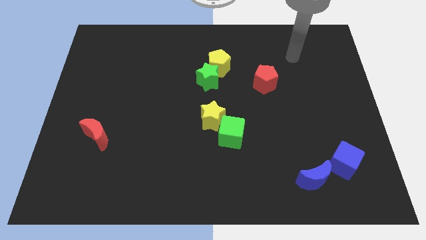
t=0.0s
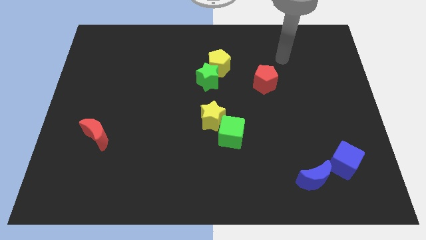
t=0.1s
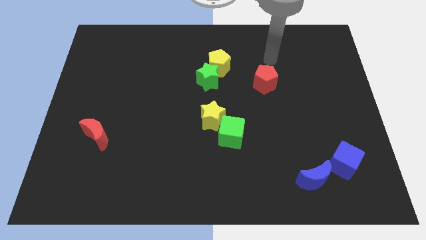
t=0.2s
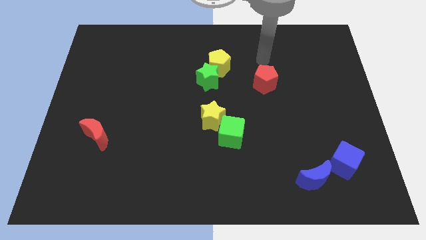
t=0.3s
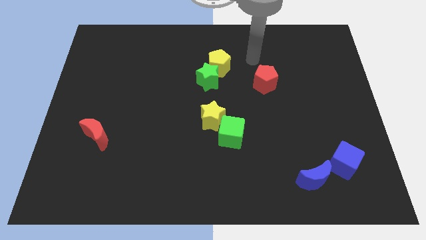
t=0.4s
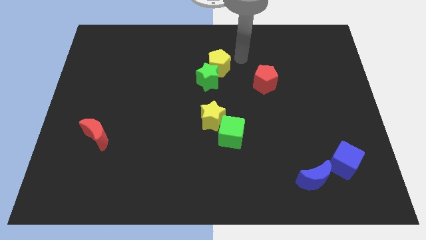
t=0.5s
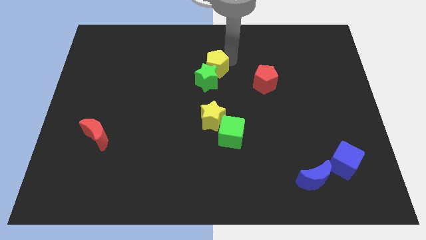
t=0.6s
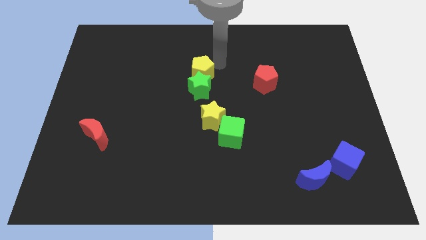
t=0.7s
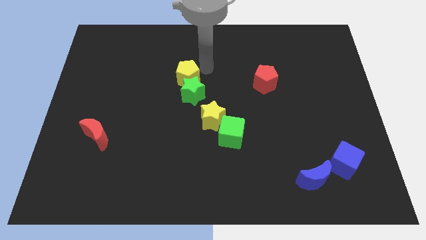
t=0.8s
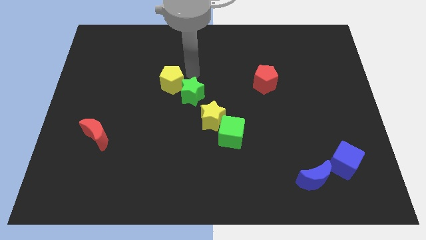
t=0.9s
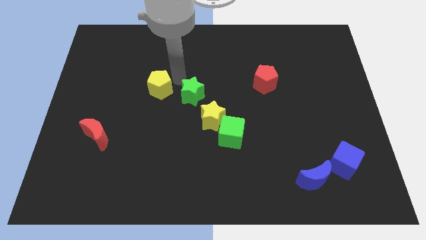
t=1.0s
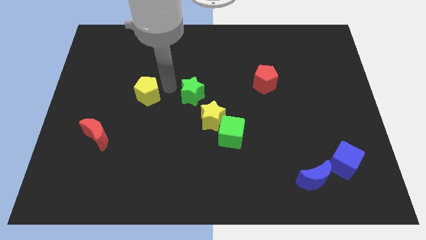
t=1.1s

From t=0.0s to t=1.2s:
separate the green star from the yellow pentagon

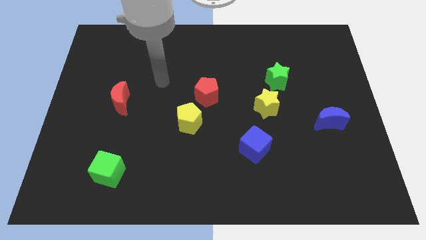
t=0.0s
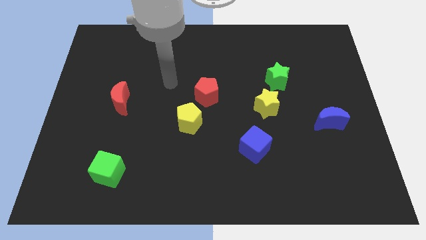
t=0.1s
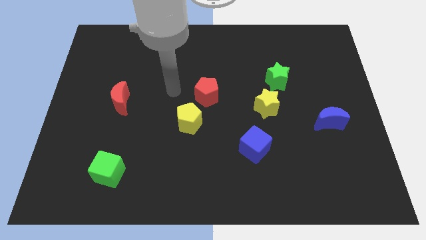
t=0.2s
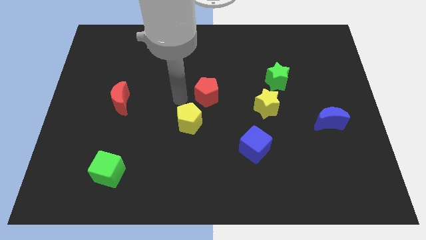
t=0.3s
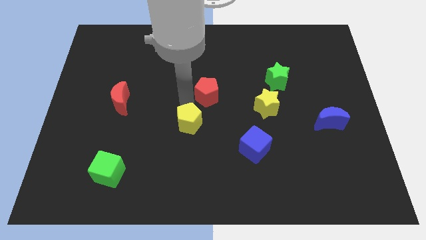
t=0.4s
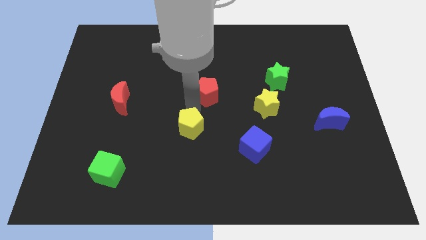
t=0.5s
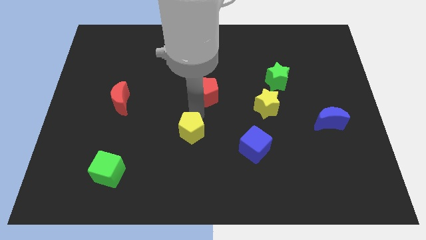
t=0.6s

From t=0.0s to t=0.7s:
separate the red pentagon from the yellow pentagon

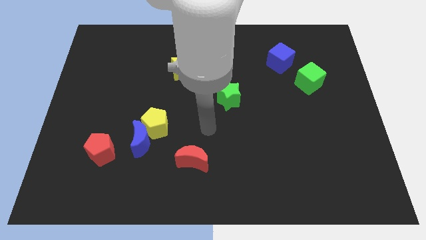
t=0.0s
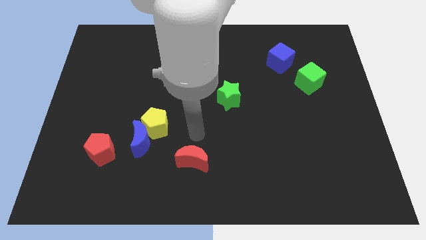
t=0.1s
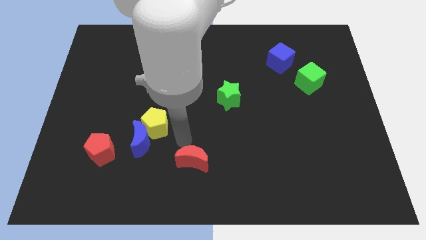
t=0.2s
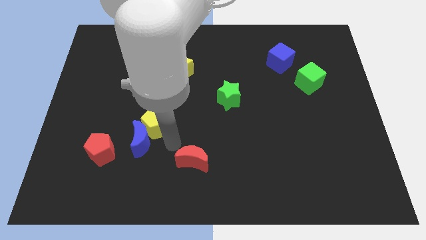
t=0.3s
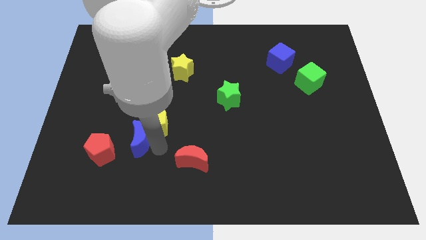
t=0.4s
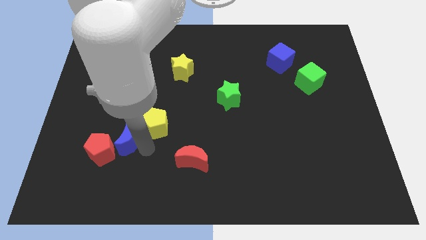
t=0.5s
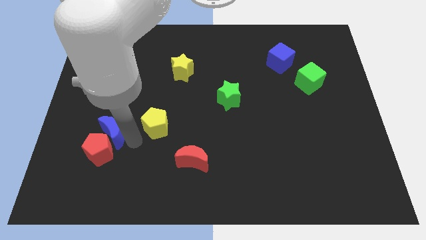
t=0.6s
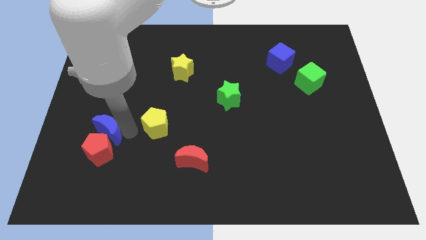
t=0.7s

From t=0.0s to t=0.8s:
move the yellow pentagon away from the blue moon

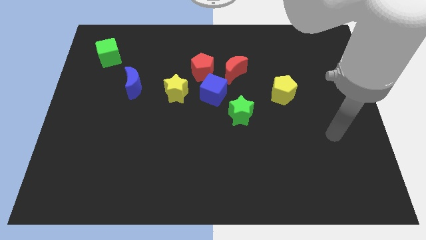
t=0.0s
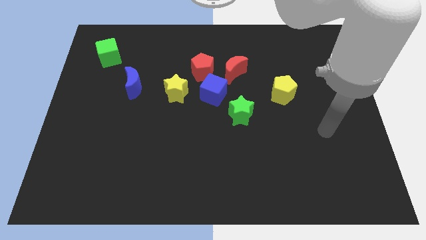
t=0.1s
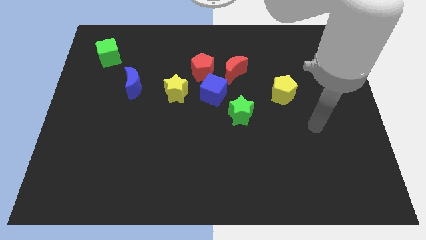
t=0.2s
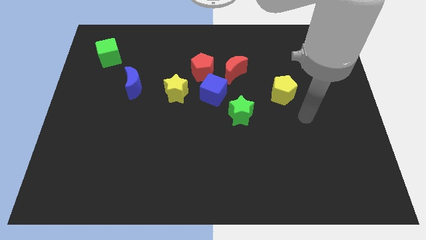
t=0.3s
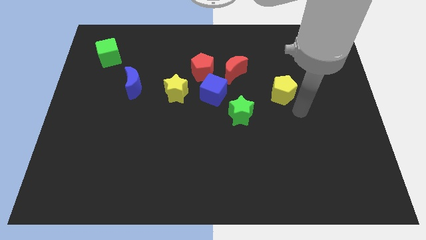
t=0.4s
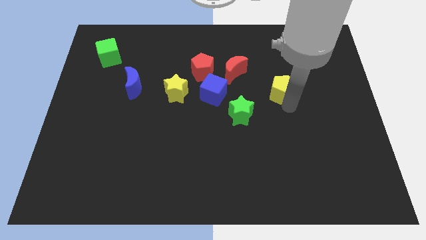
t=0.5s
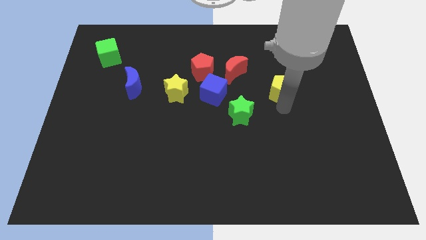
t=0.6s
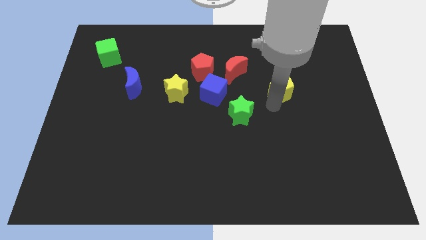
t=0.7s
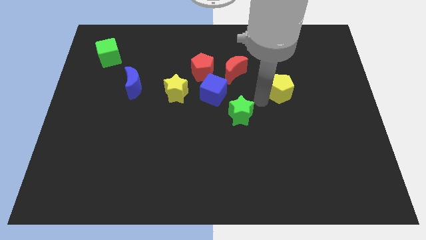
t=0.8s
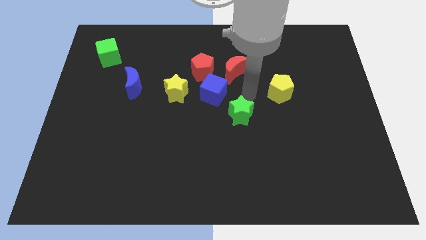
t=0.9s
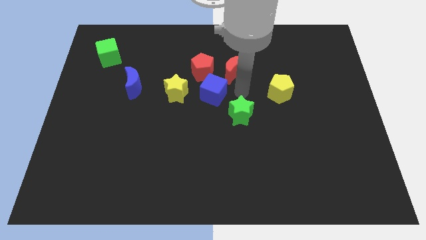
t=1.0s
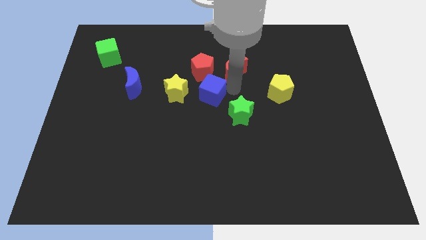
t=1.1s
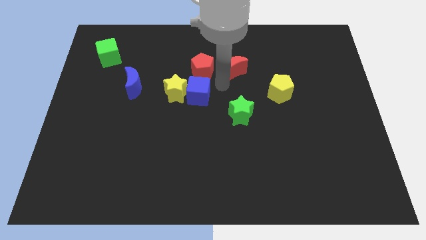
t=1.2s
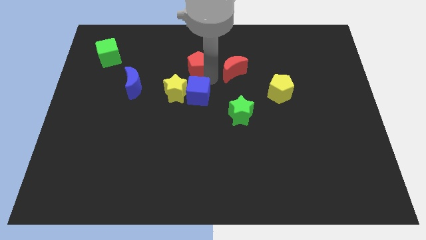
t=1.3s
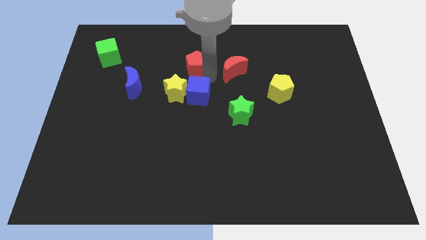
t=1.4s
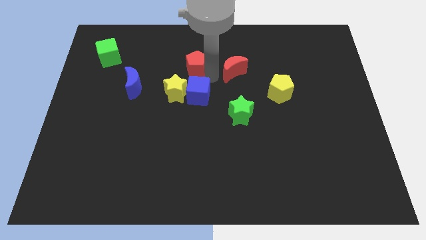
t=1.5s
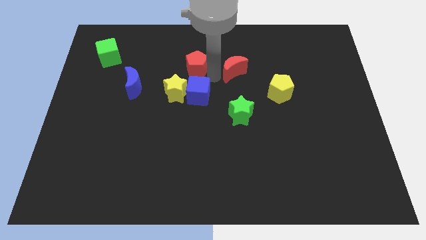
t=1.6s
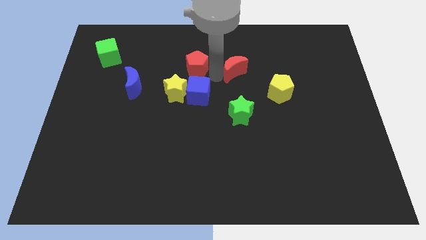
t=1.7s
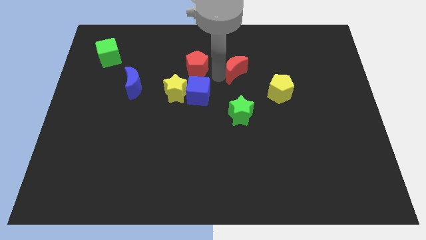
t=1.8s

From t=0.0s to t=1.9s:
move the red moon away from the red pentagon and blue cube

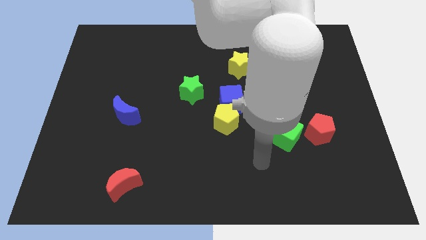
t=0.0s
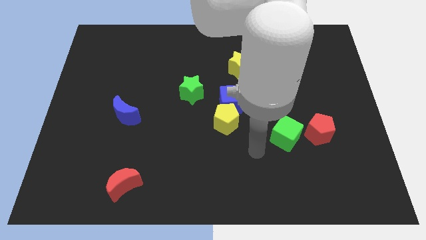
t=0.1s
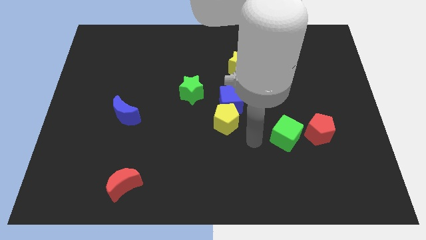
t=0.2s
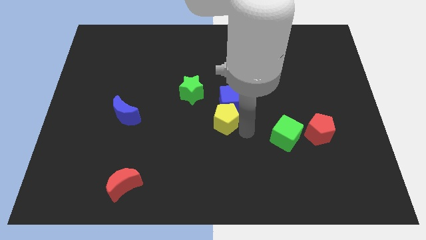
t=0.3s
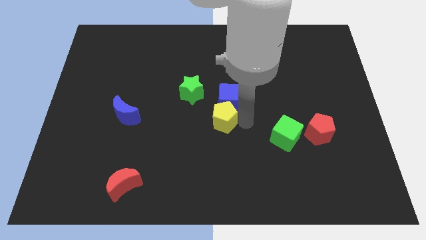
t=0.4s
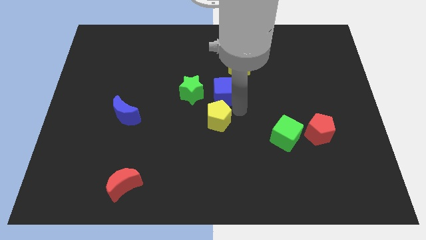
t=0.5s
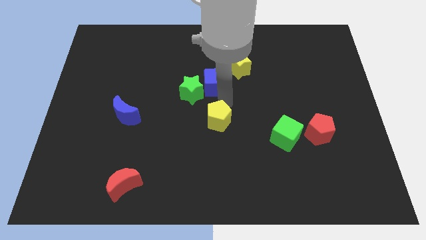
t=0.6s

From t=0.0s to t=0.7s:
pull the yellow pentagon apart from the blue cube

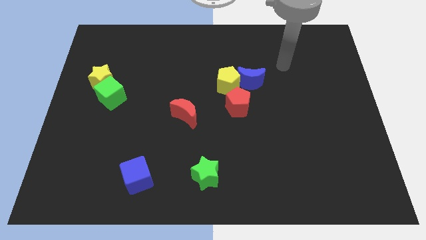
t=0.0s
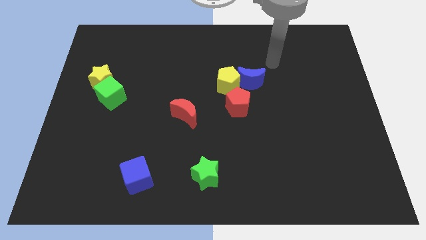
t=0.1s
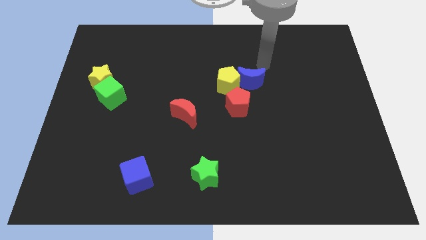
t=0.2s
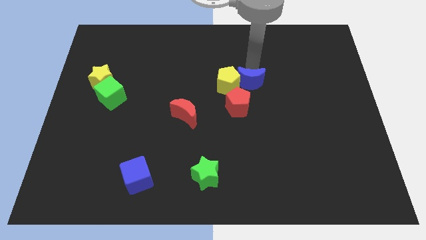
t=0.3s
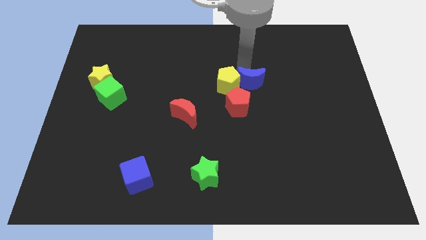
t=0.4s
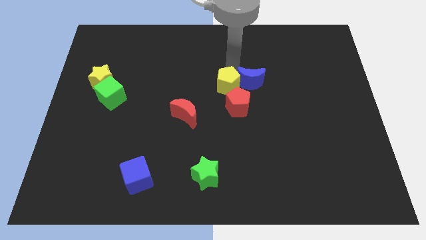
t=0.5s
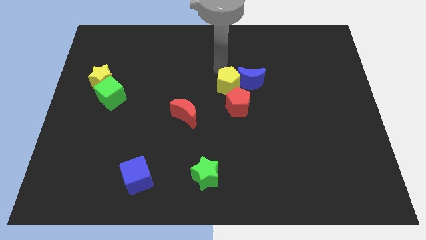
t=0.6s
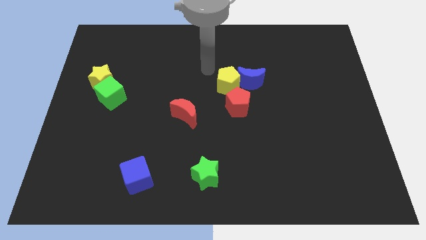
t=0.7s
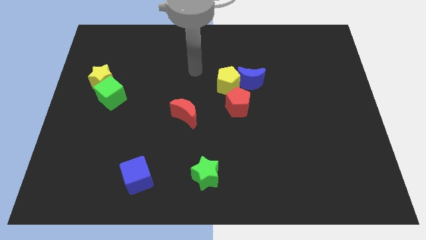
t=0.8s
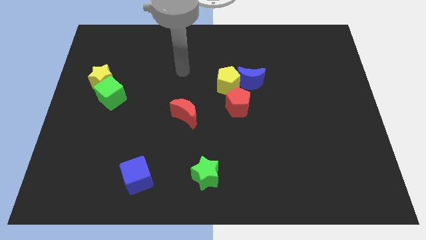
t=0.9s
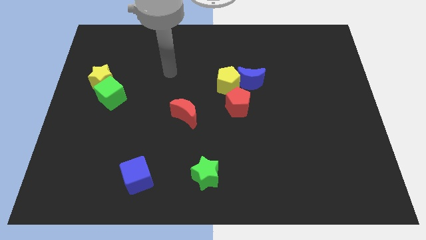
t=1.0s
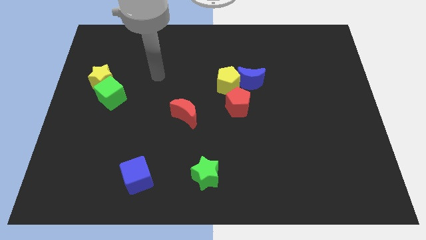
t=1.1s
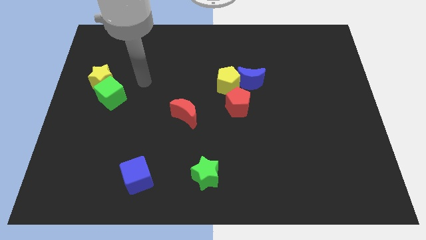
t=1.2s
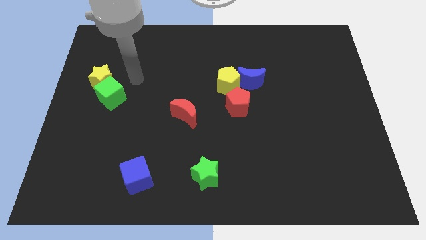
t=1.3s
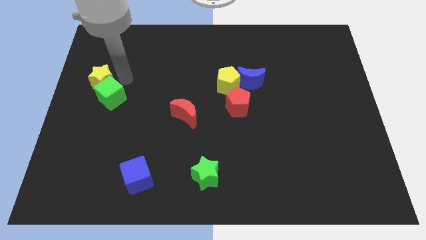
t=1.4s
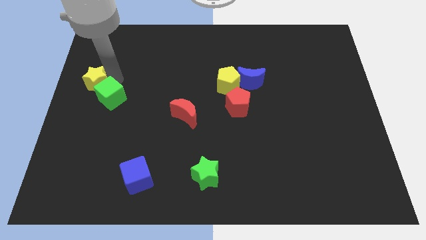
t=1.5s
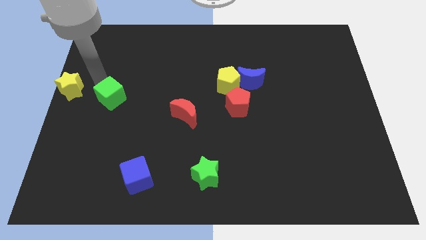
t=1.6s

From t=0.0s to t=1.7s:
pull the green cube apart from the yellow star

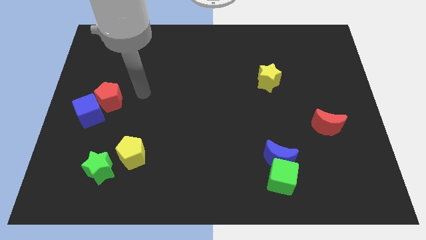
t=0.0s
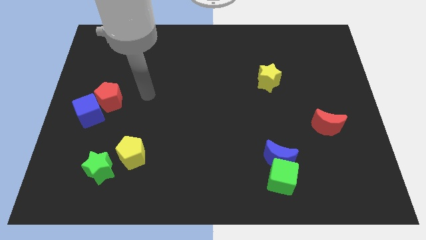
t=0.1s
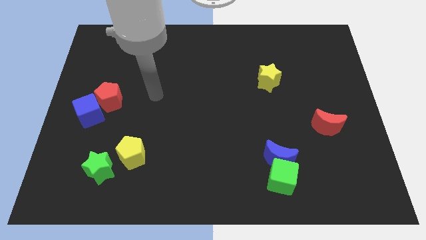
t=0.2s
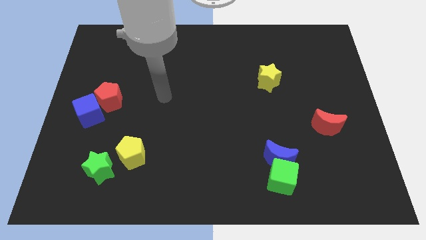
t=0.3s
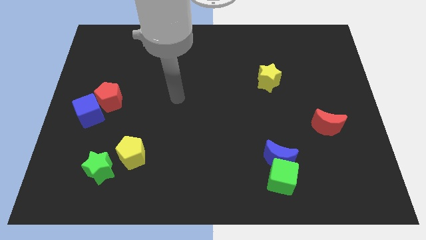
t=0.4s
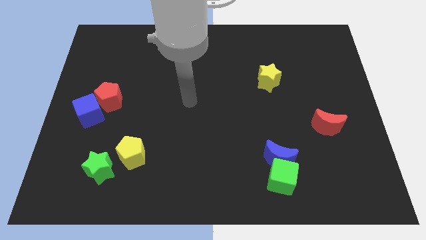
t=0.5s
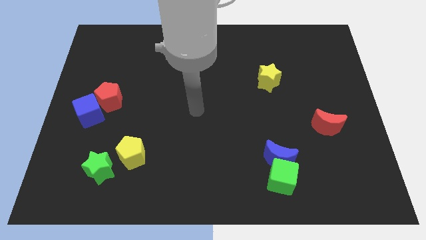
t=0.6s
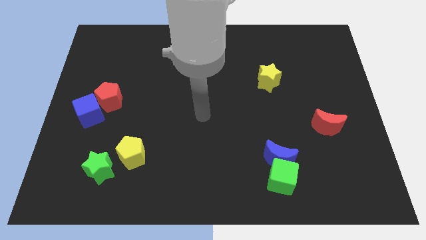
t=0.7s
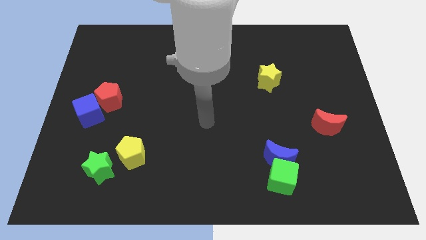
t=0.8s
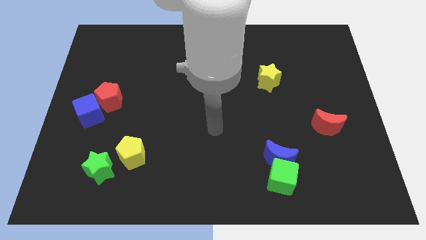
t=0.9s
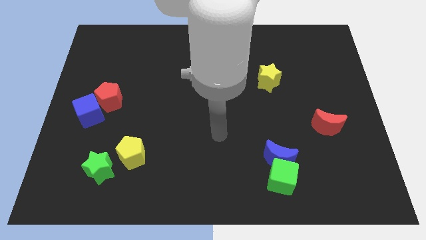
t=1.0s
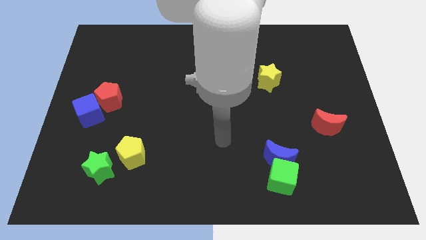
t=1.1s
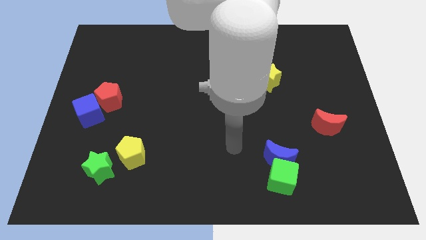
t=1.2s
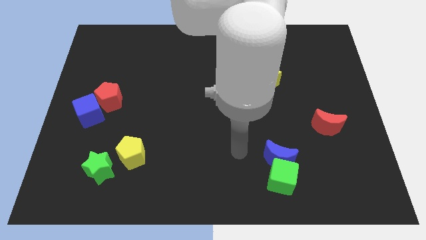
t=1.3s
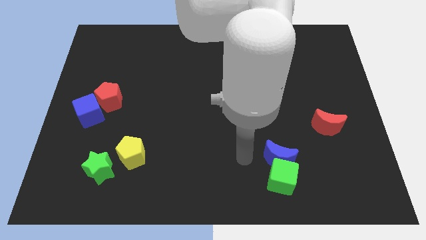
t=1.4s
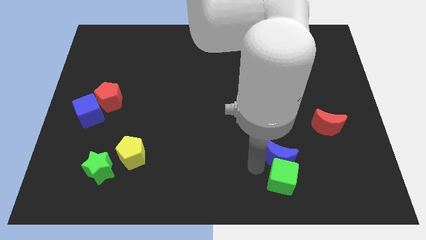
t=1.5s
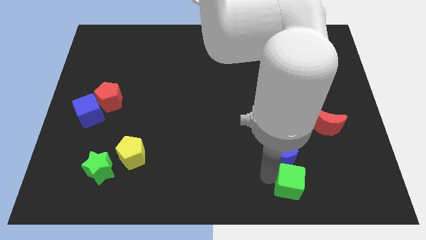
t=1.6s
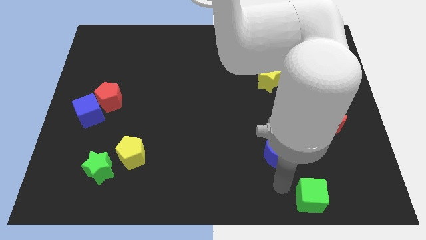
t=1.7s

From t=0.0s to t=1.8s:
pull the blue moon apart from the green cube

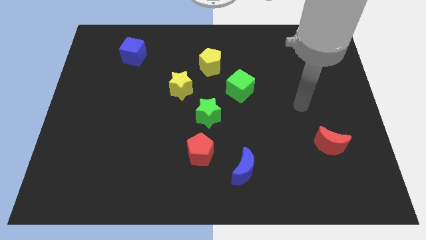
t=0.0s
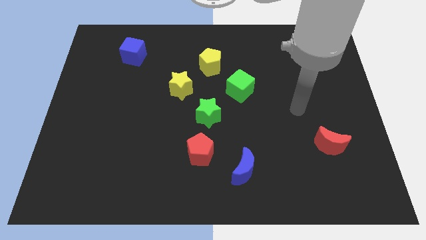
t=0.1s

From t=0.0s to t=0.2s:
move the green star away from the red pentagon

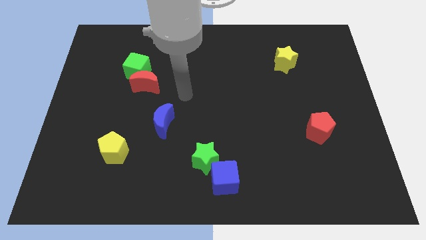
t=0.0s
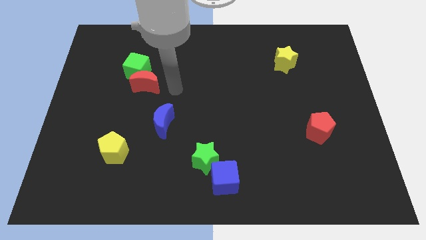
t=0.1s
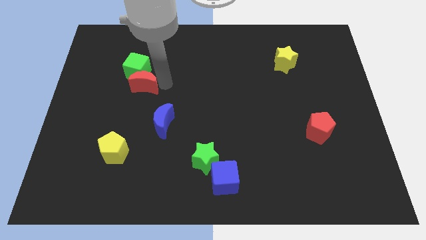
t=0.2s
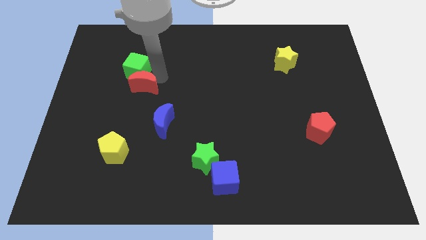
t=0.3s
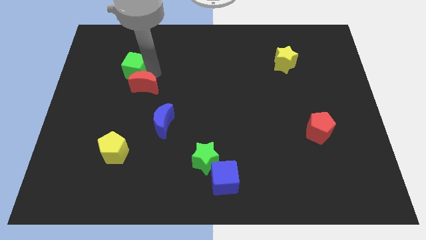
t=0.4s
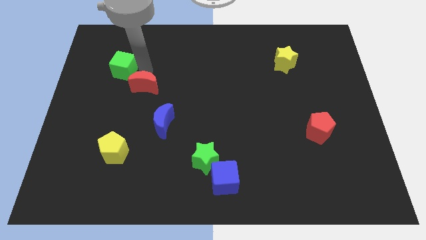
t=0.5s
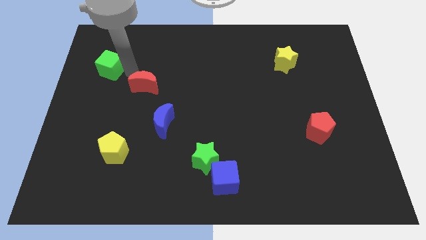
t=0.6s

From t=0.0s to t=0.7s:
pull the red moon apart from the green cube
